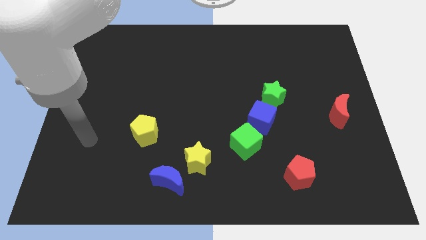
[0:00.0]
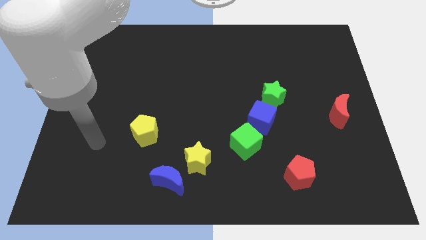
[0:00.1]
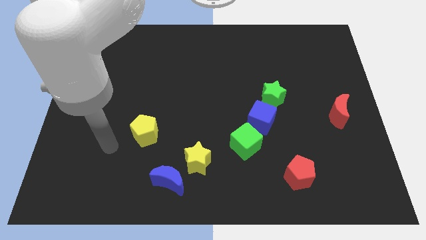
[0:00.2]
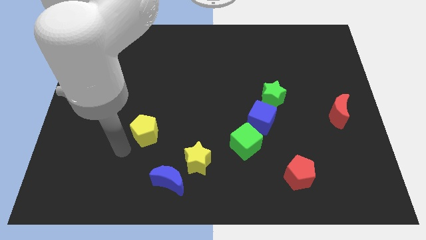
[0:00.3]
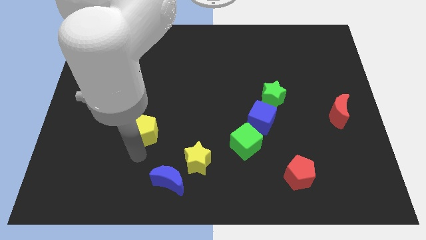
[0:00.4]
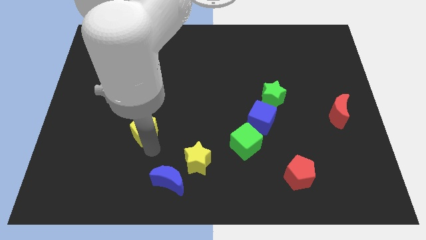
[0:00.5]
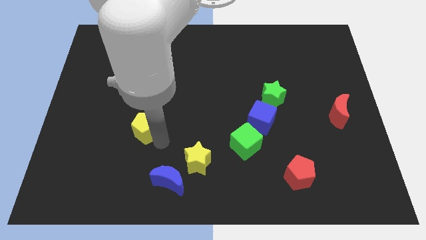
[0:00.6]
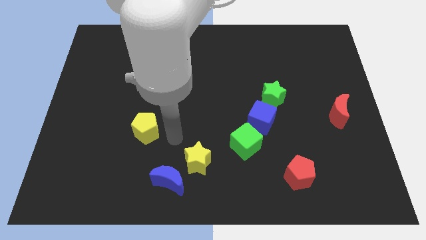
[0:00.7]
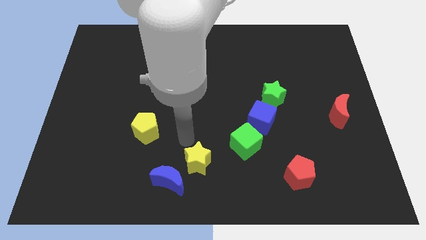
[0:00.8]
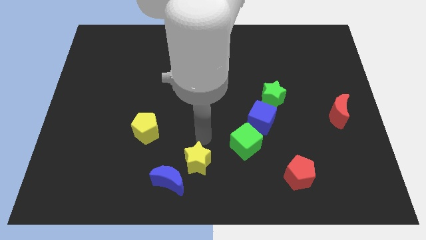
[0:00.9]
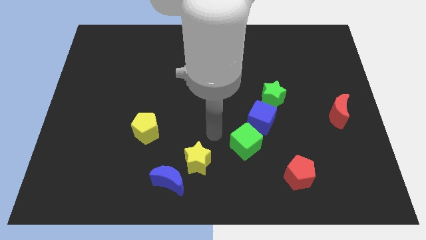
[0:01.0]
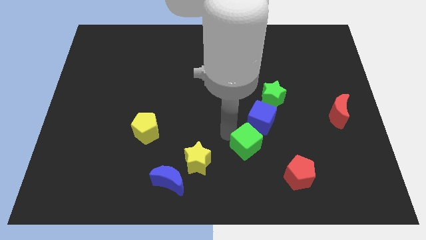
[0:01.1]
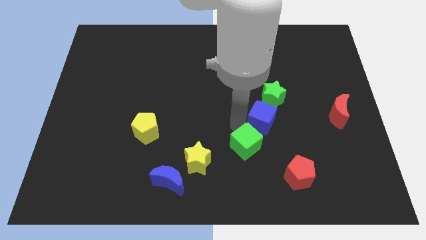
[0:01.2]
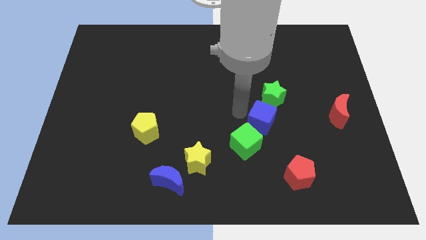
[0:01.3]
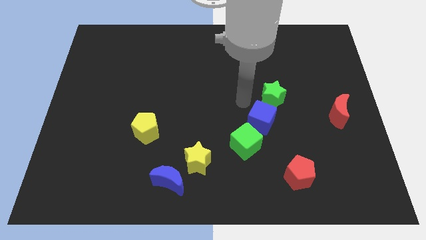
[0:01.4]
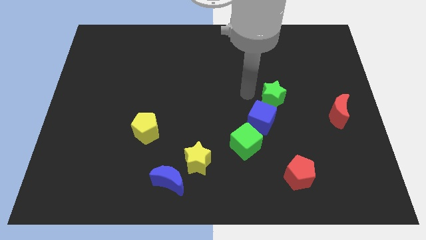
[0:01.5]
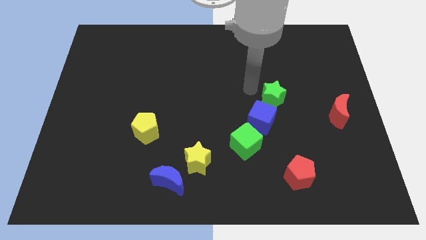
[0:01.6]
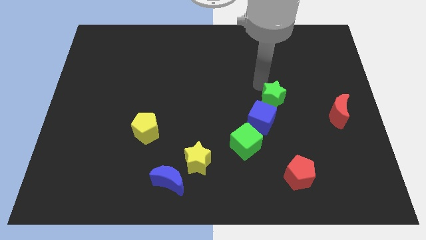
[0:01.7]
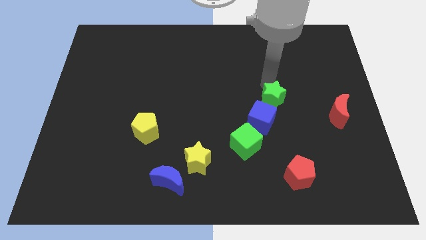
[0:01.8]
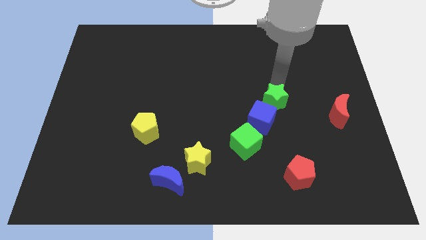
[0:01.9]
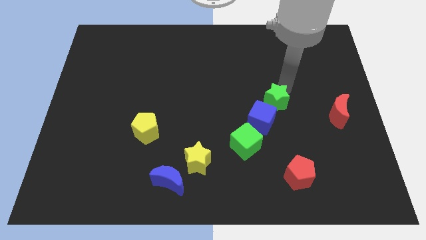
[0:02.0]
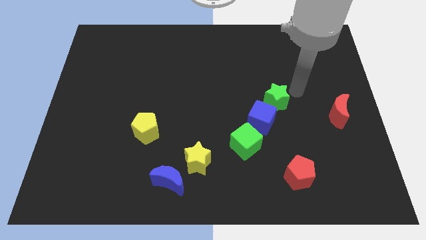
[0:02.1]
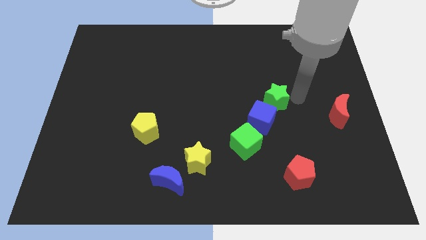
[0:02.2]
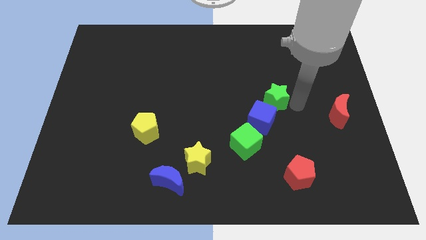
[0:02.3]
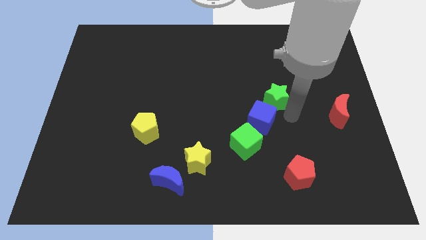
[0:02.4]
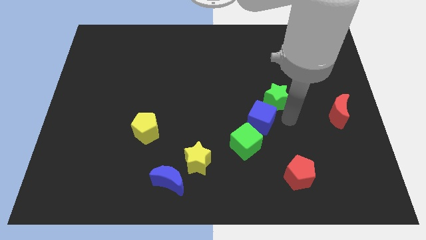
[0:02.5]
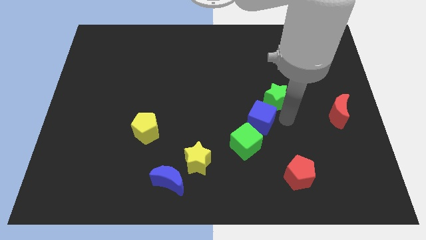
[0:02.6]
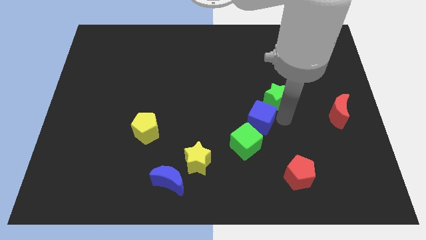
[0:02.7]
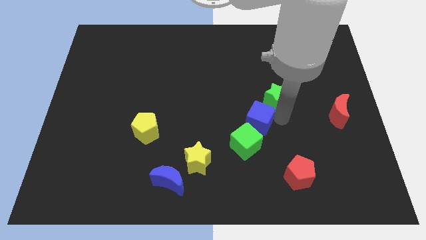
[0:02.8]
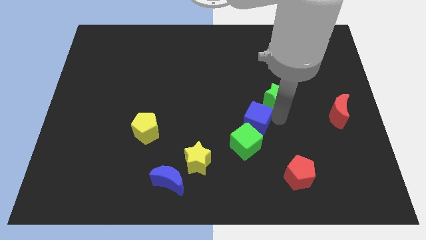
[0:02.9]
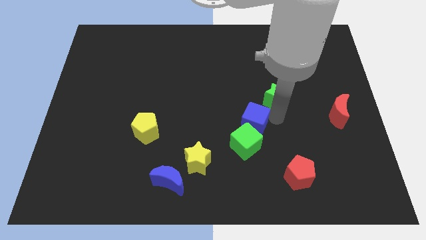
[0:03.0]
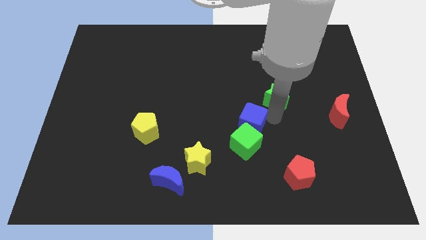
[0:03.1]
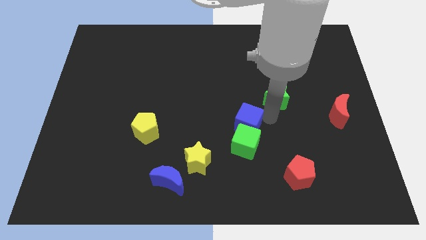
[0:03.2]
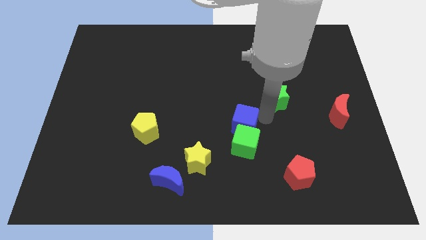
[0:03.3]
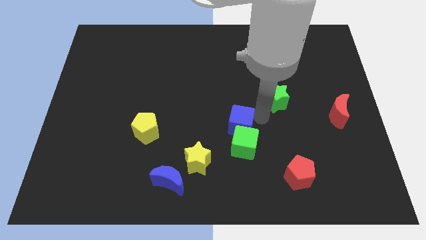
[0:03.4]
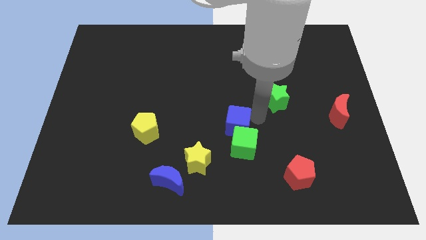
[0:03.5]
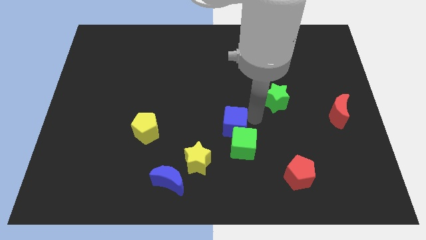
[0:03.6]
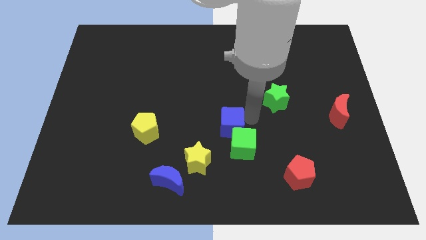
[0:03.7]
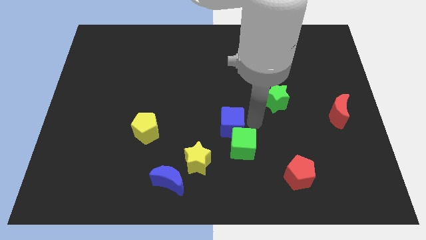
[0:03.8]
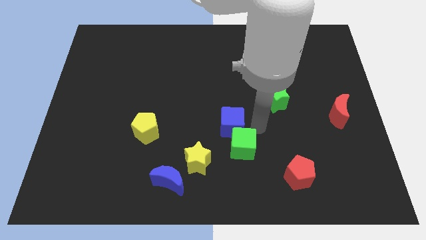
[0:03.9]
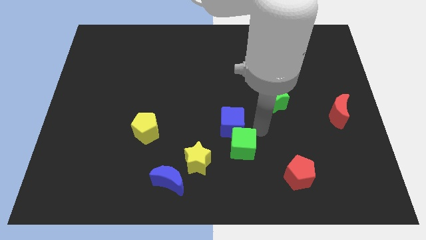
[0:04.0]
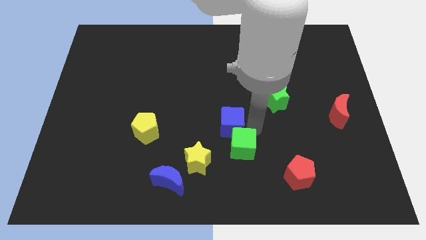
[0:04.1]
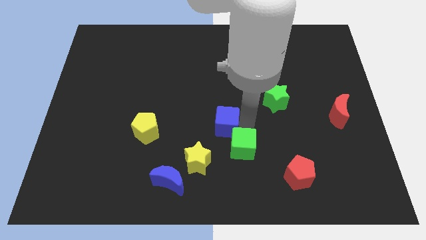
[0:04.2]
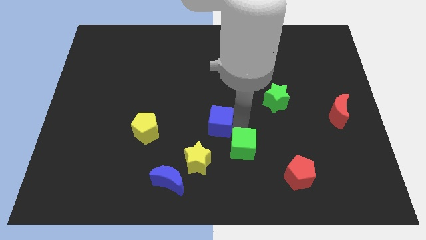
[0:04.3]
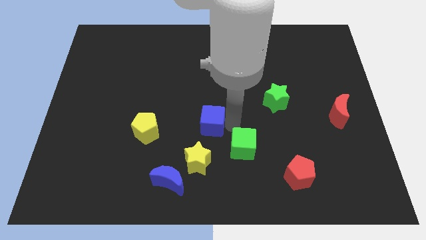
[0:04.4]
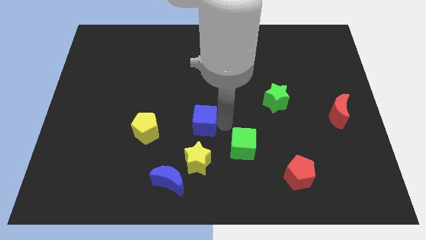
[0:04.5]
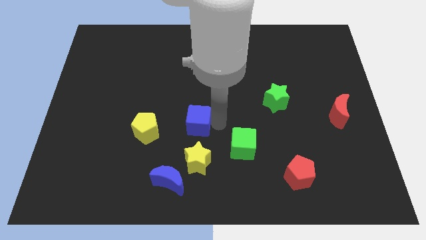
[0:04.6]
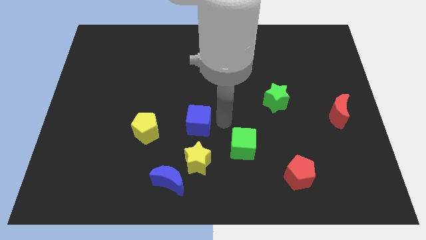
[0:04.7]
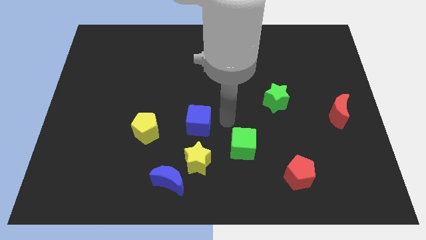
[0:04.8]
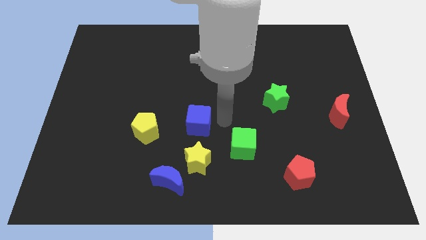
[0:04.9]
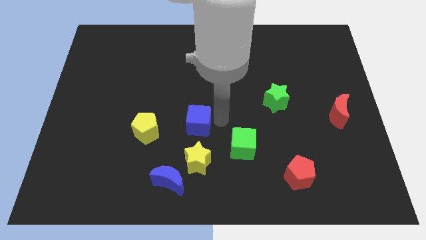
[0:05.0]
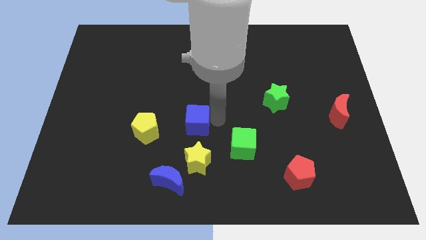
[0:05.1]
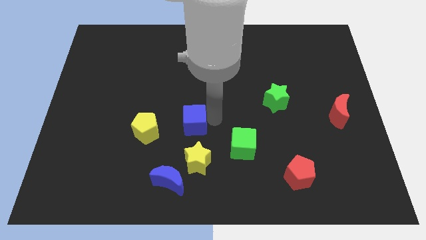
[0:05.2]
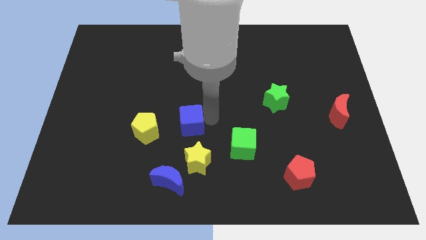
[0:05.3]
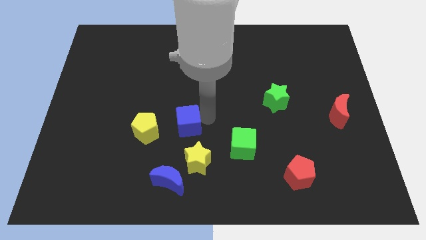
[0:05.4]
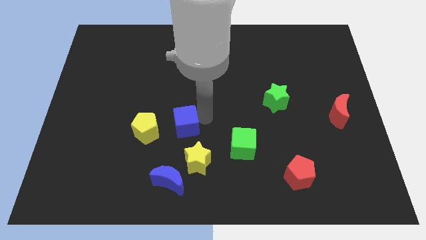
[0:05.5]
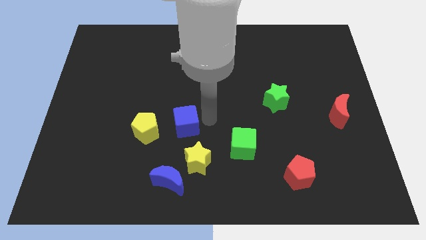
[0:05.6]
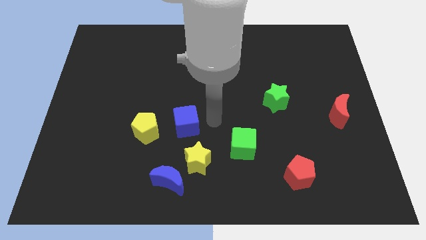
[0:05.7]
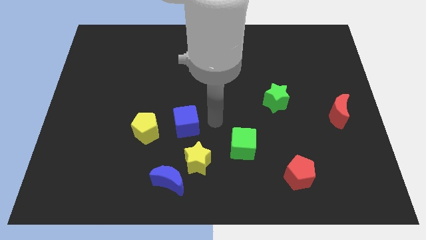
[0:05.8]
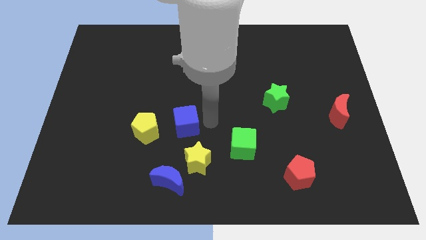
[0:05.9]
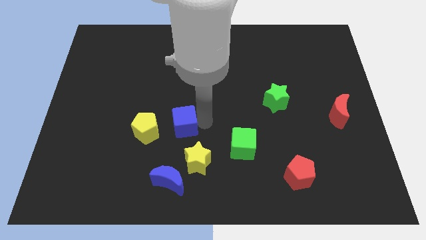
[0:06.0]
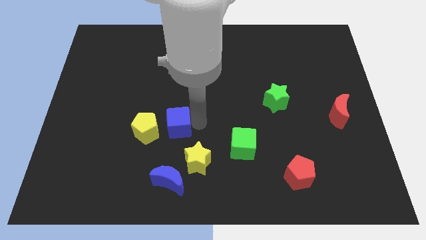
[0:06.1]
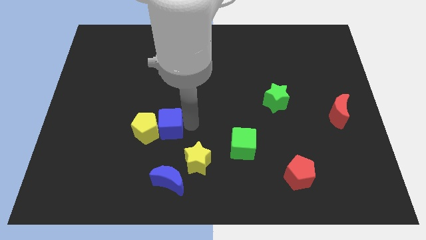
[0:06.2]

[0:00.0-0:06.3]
push the blue cube next to the yellow pentagon

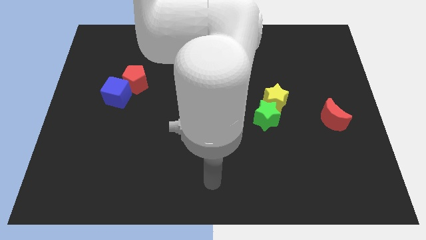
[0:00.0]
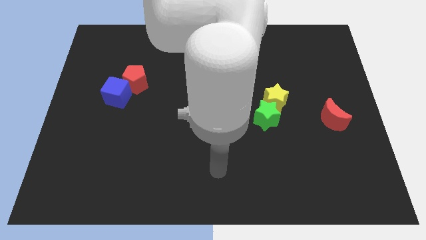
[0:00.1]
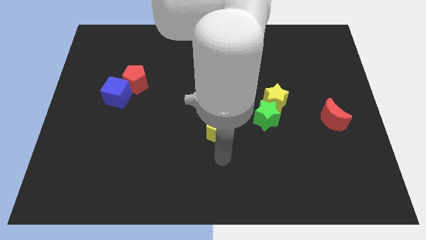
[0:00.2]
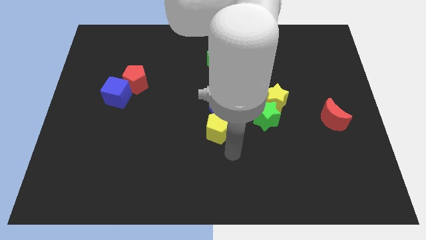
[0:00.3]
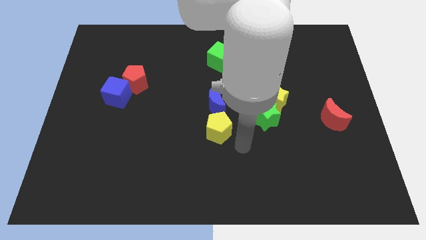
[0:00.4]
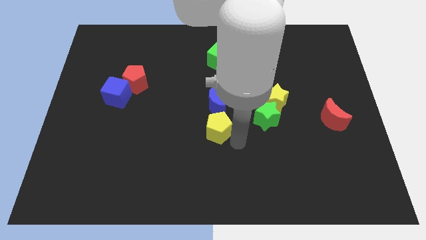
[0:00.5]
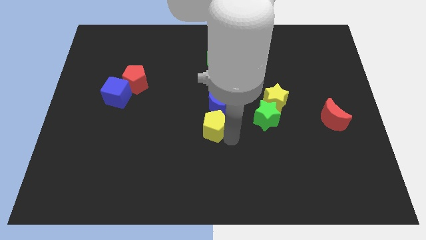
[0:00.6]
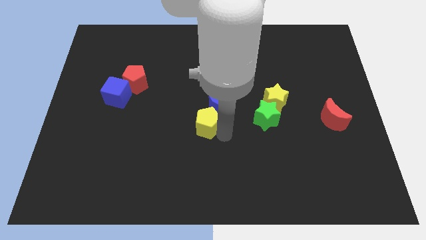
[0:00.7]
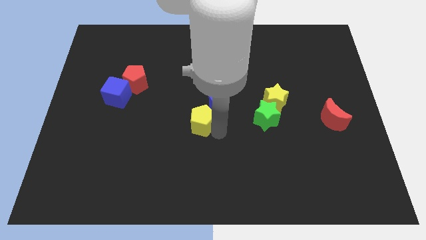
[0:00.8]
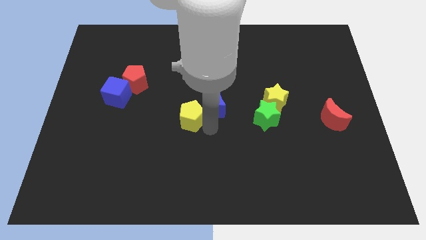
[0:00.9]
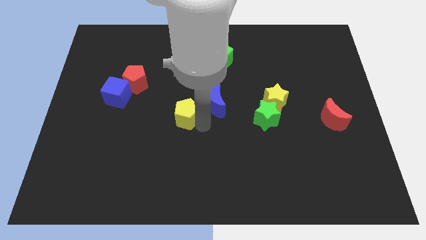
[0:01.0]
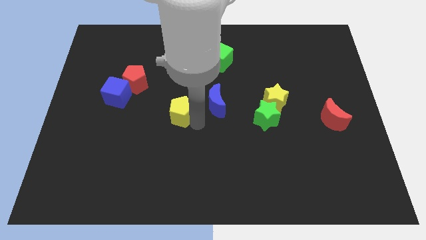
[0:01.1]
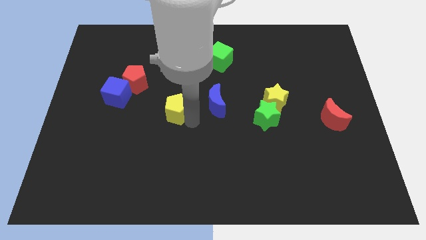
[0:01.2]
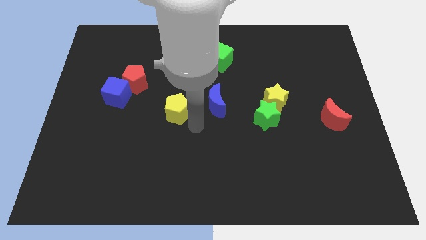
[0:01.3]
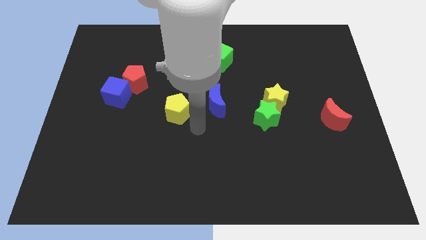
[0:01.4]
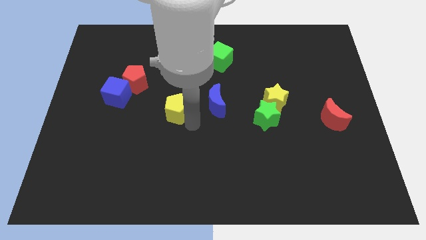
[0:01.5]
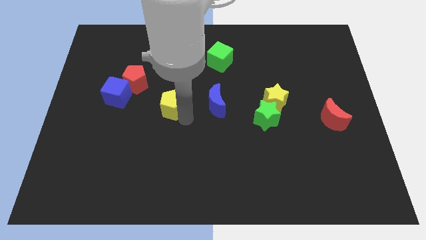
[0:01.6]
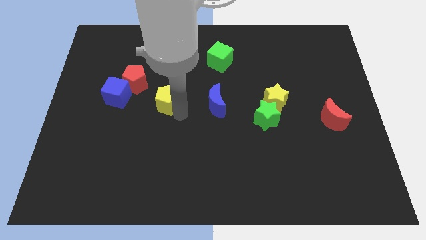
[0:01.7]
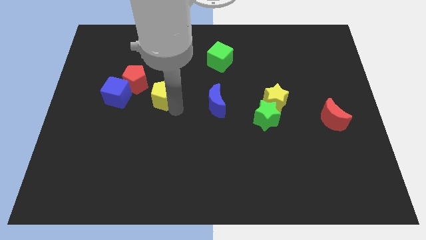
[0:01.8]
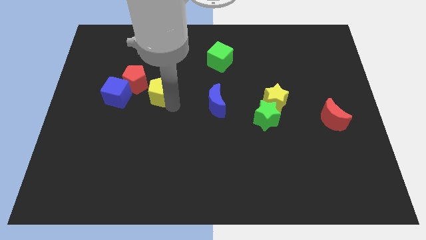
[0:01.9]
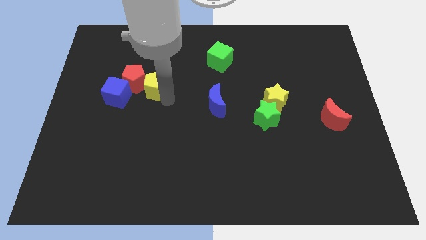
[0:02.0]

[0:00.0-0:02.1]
push the yellow pentagon next to the red pentagon
